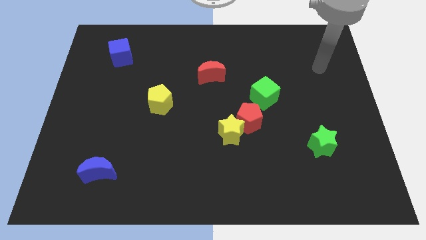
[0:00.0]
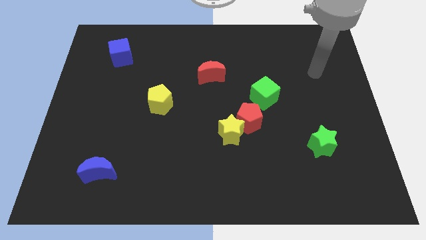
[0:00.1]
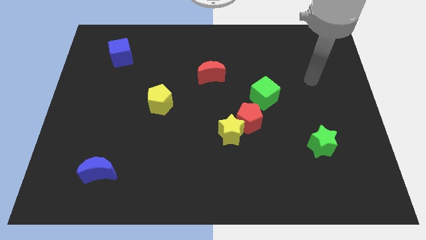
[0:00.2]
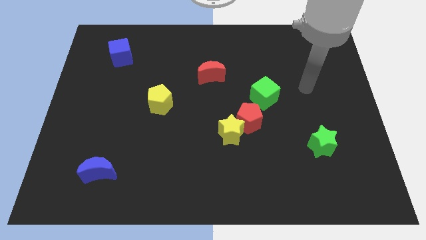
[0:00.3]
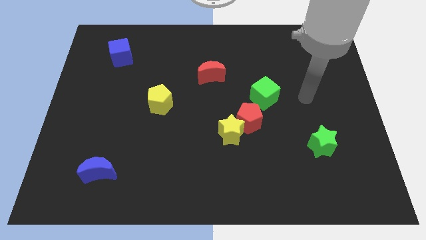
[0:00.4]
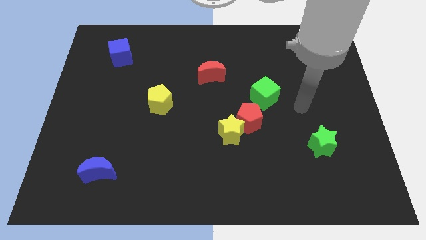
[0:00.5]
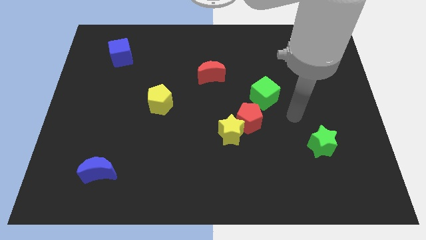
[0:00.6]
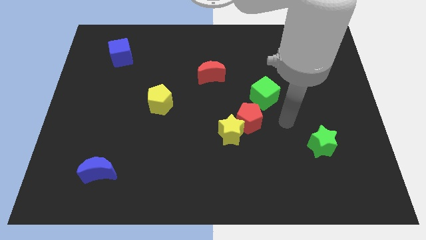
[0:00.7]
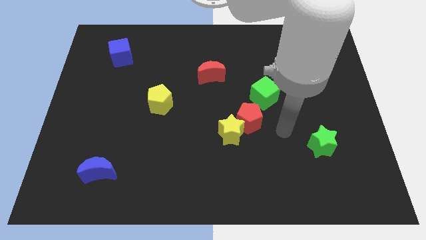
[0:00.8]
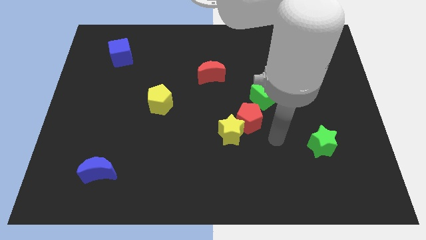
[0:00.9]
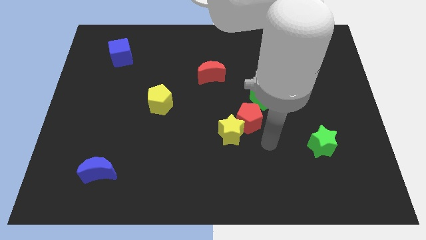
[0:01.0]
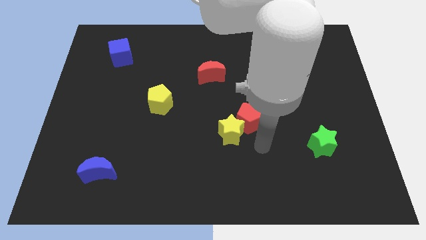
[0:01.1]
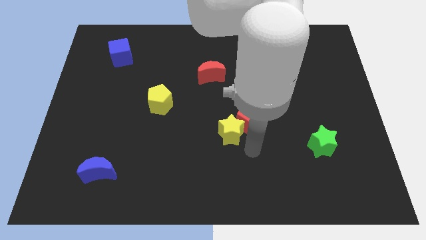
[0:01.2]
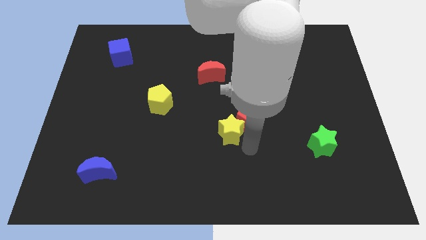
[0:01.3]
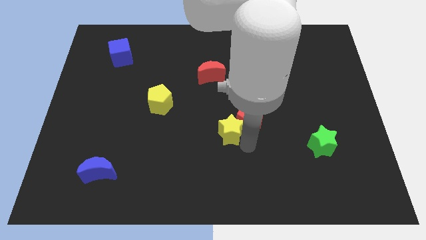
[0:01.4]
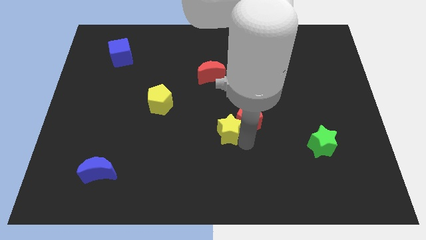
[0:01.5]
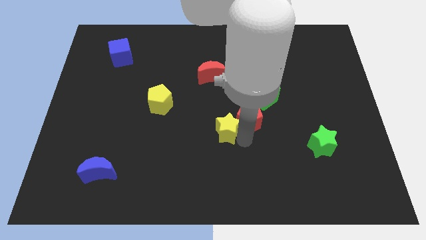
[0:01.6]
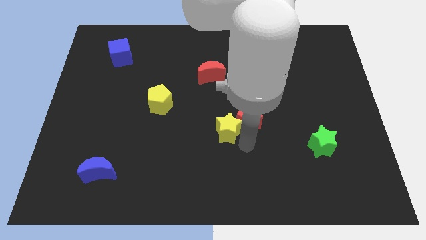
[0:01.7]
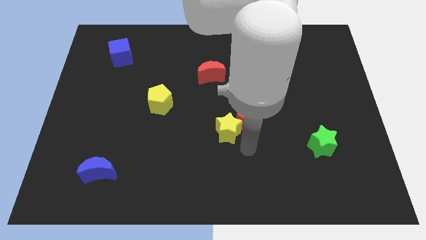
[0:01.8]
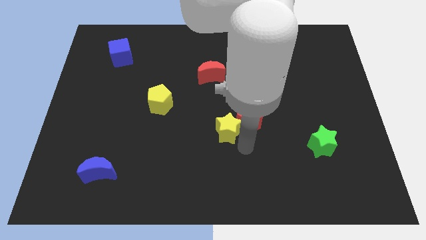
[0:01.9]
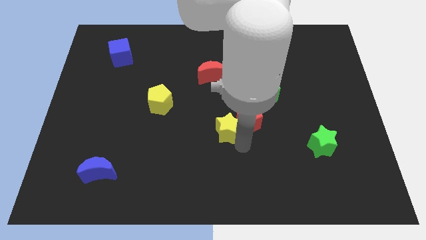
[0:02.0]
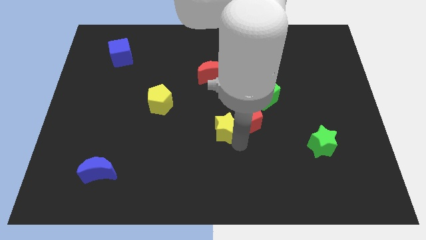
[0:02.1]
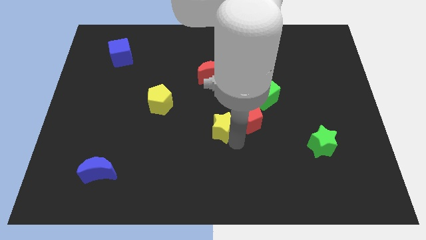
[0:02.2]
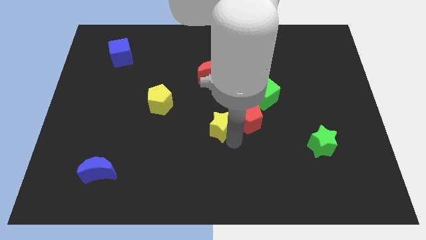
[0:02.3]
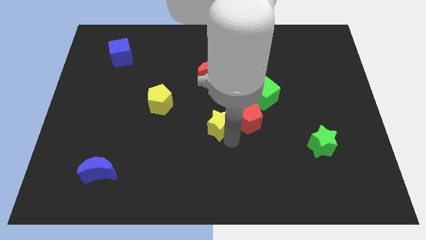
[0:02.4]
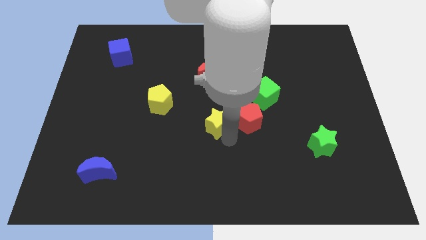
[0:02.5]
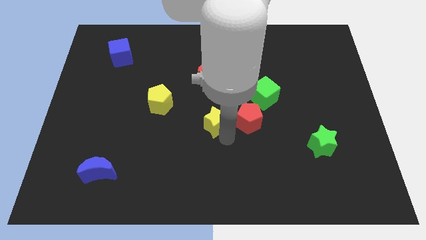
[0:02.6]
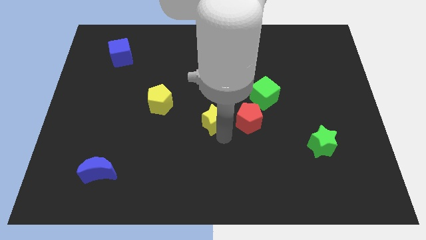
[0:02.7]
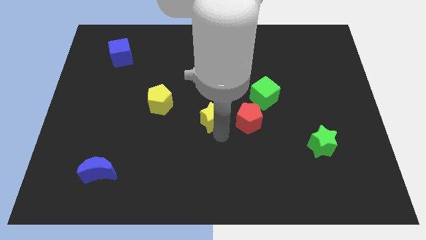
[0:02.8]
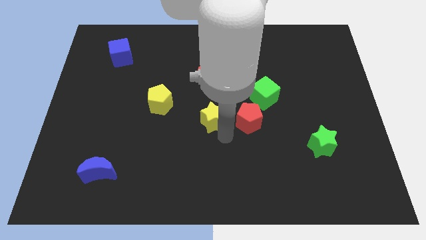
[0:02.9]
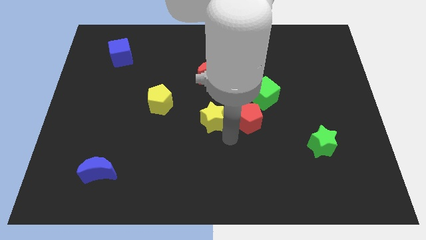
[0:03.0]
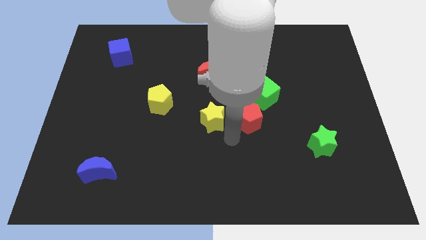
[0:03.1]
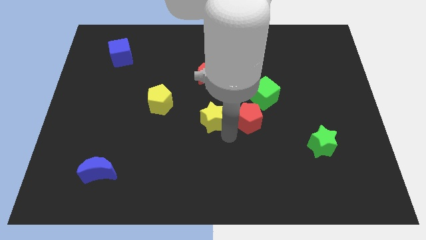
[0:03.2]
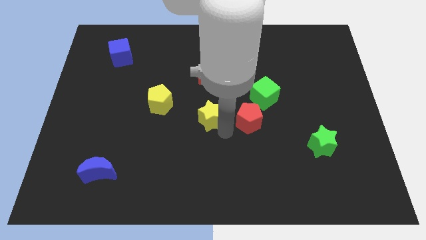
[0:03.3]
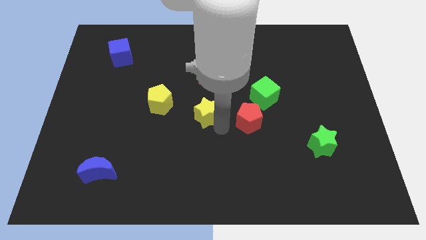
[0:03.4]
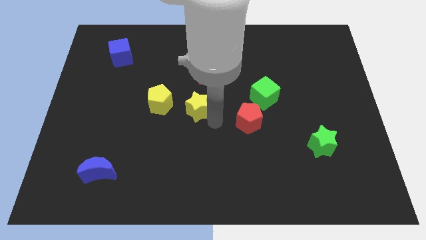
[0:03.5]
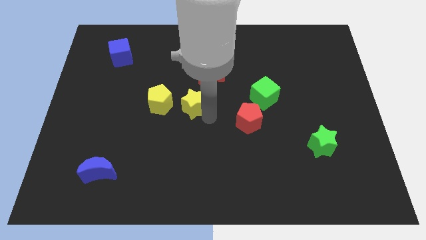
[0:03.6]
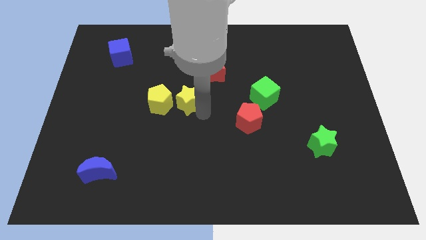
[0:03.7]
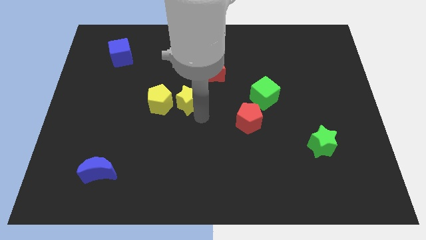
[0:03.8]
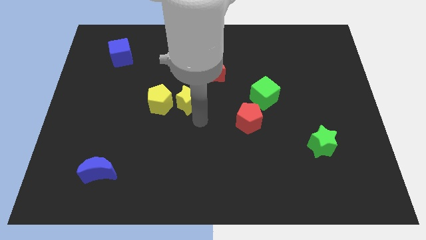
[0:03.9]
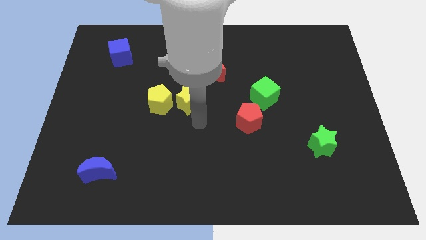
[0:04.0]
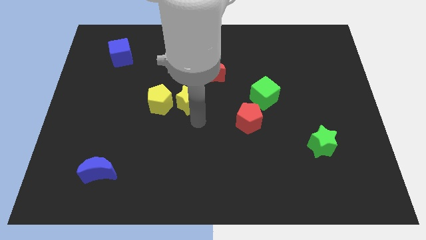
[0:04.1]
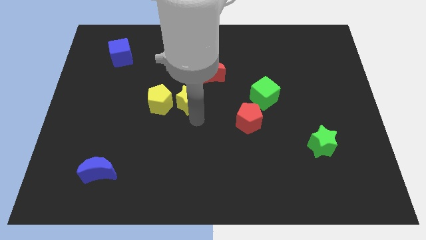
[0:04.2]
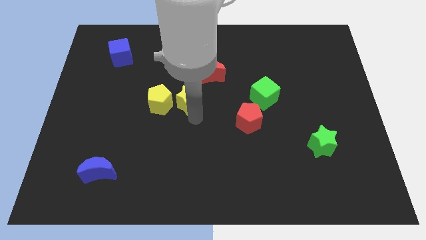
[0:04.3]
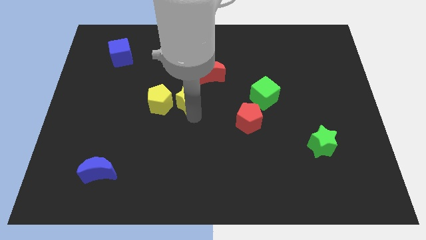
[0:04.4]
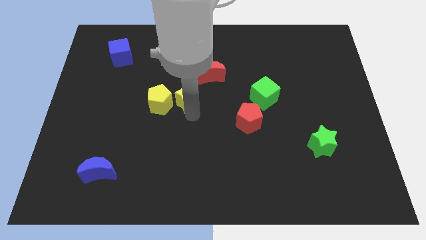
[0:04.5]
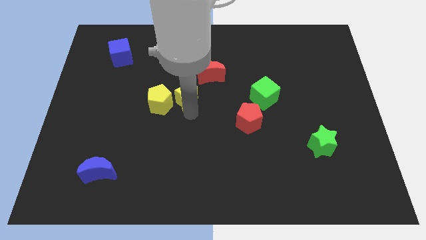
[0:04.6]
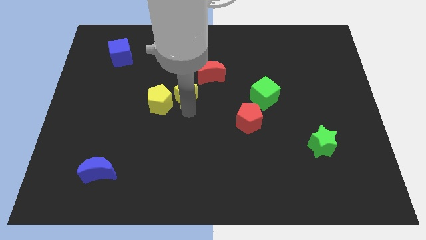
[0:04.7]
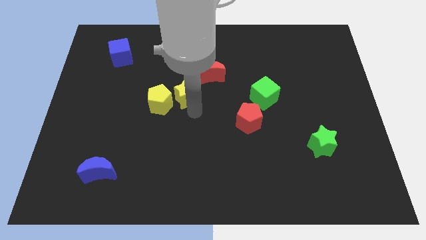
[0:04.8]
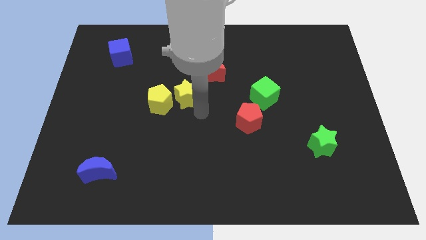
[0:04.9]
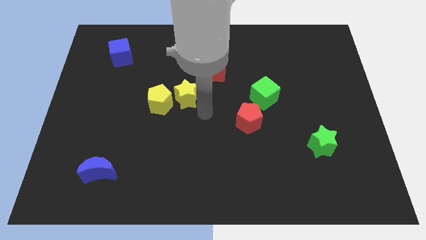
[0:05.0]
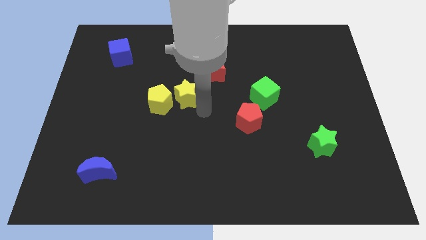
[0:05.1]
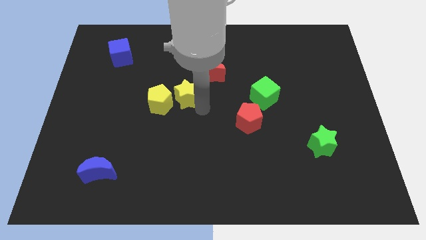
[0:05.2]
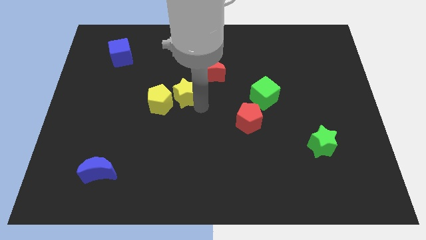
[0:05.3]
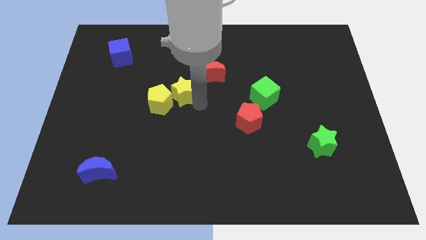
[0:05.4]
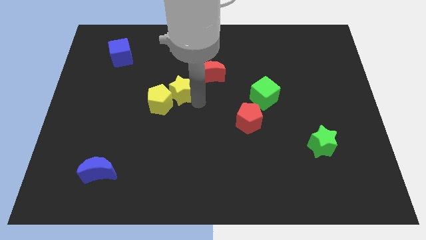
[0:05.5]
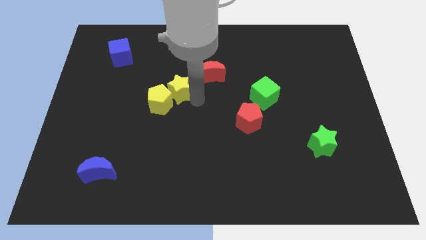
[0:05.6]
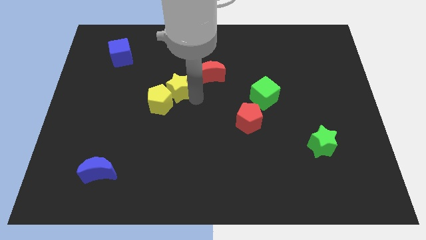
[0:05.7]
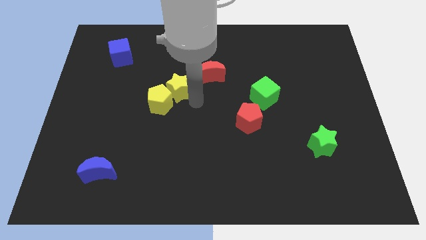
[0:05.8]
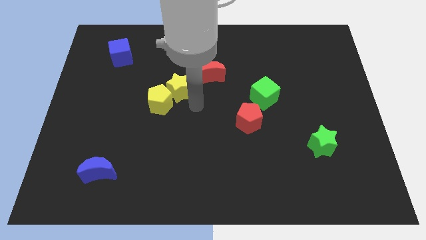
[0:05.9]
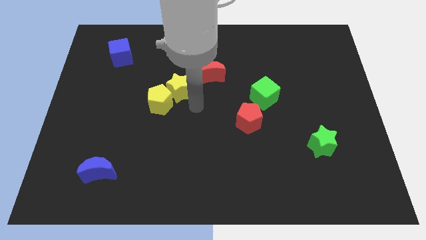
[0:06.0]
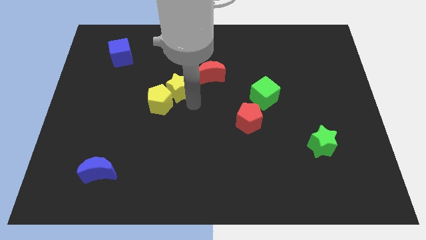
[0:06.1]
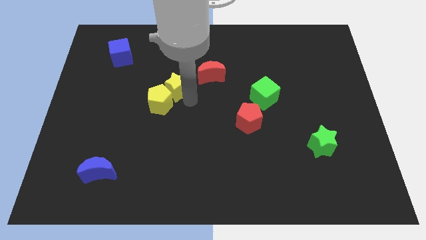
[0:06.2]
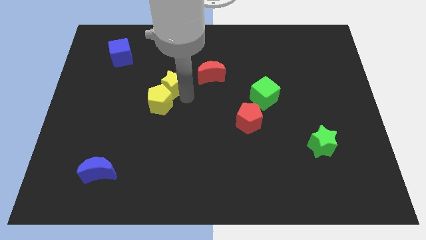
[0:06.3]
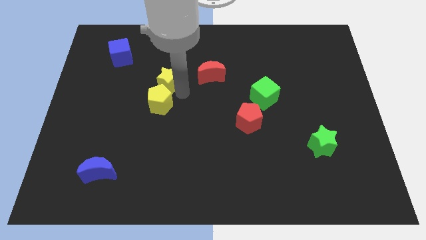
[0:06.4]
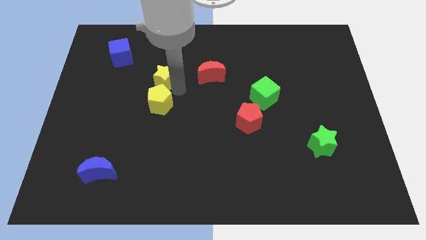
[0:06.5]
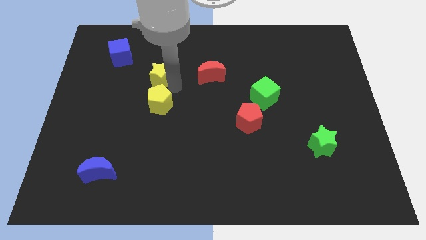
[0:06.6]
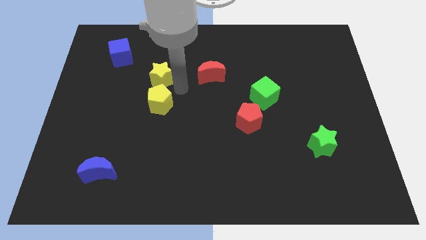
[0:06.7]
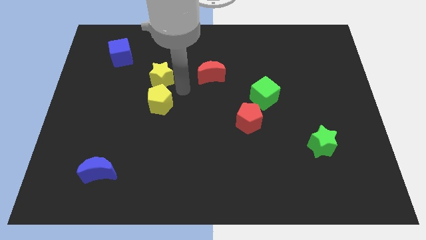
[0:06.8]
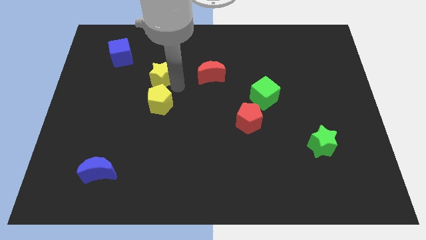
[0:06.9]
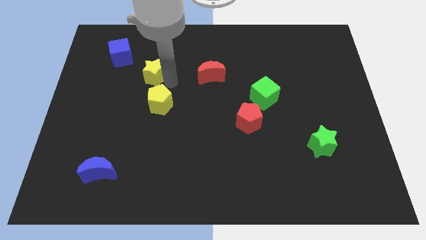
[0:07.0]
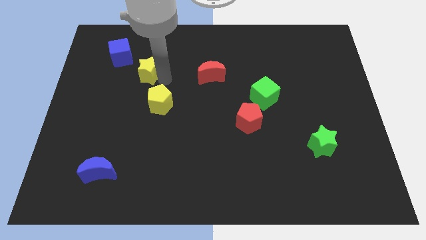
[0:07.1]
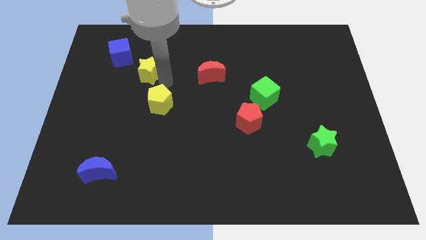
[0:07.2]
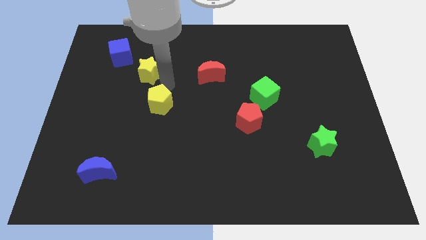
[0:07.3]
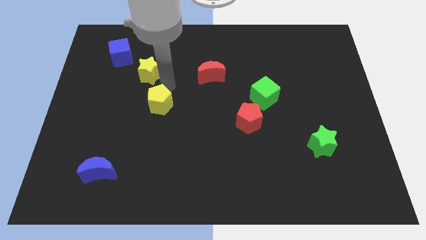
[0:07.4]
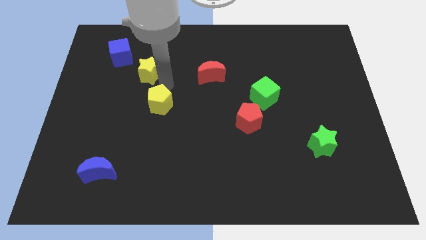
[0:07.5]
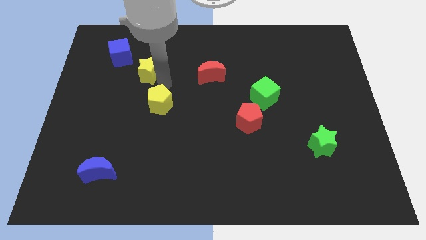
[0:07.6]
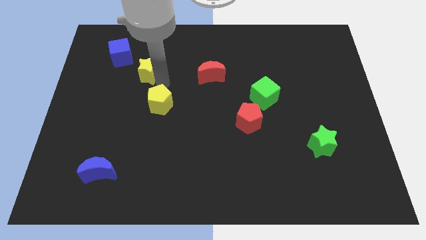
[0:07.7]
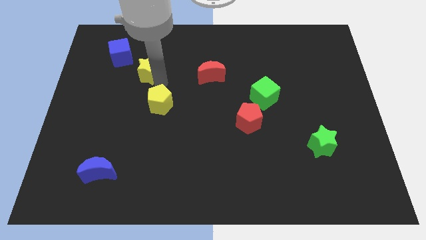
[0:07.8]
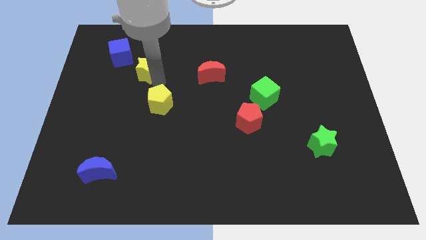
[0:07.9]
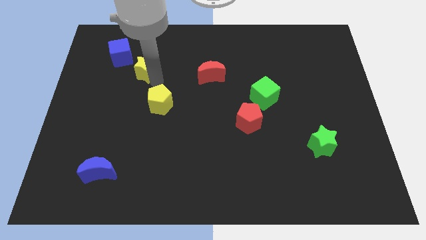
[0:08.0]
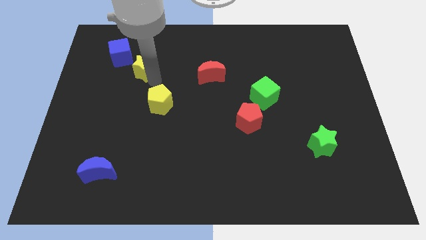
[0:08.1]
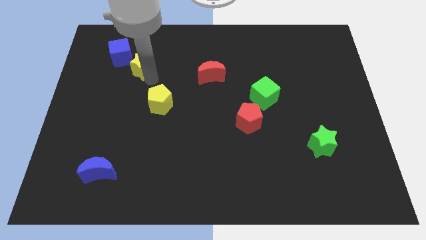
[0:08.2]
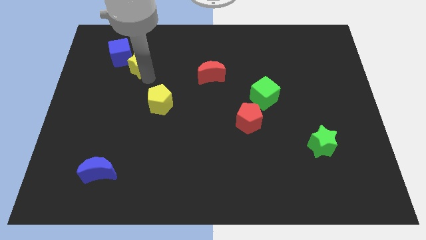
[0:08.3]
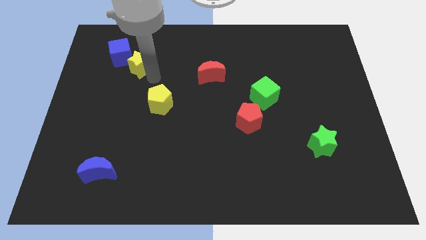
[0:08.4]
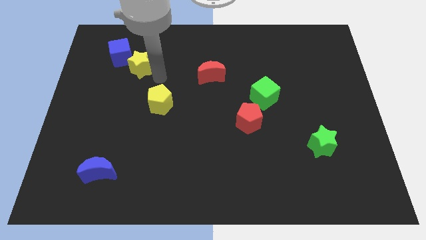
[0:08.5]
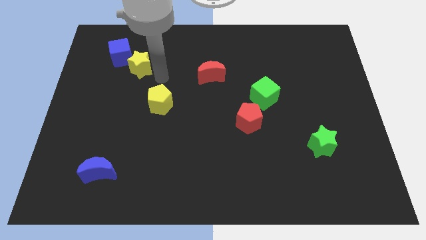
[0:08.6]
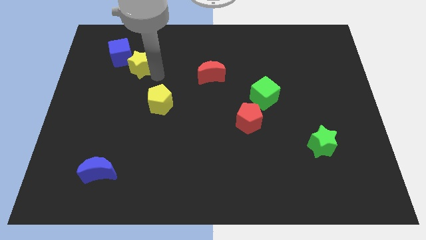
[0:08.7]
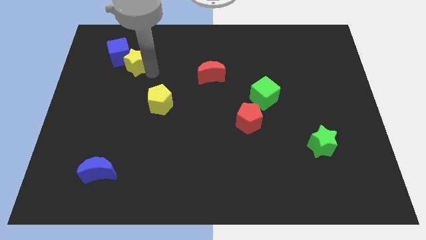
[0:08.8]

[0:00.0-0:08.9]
slide the yellow star towards the blue cube
